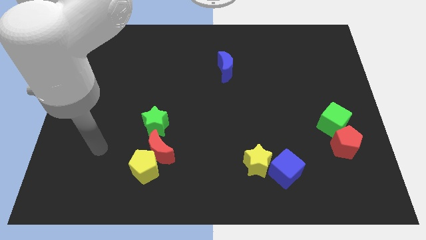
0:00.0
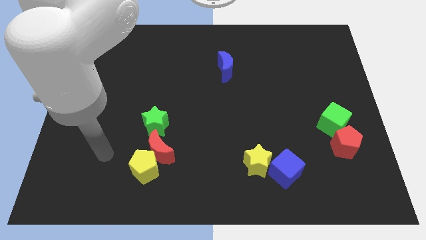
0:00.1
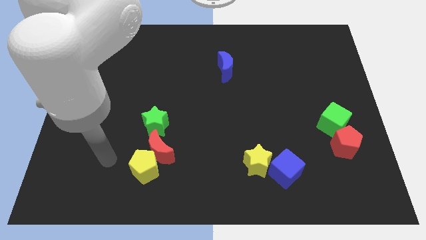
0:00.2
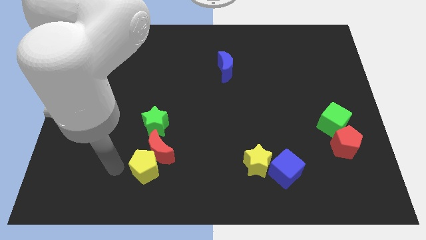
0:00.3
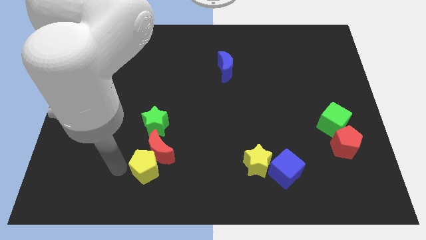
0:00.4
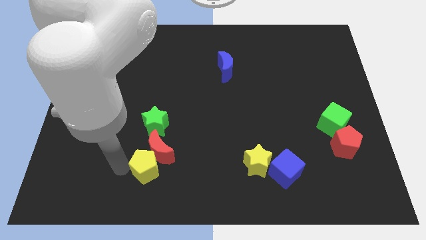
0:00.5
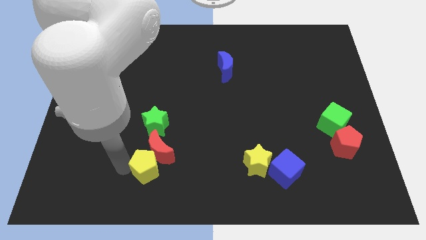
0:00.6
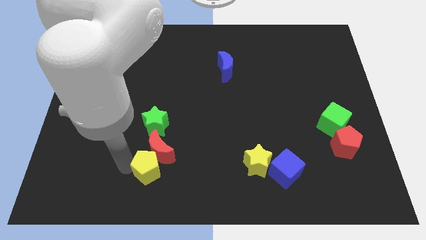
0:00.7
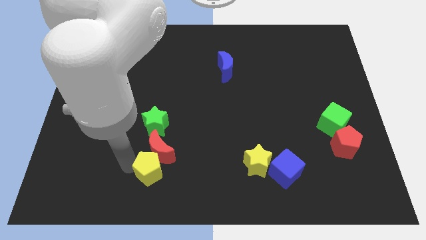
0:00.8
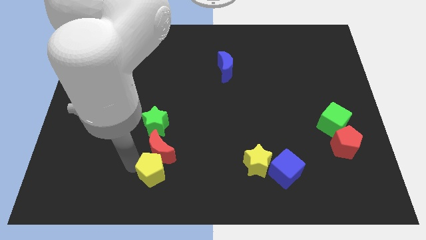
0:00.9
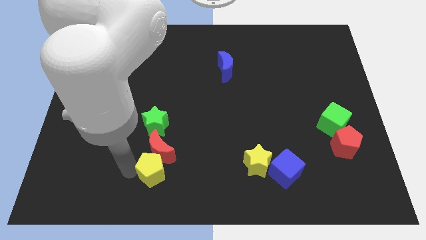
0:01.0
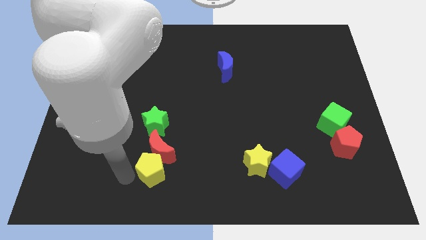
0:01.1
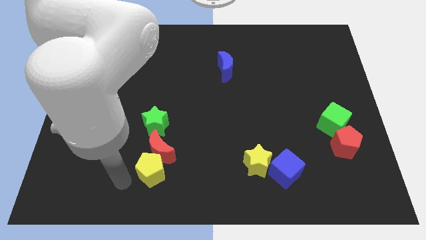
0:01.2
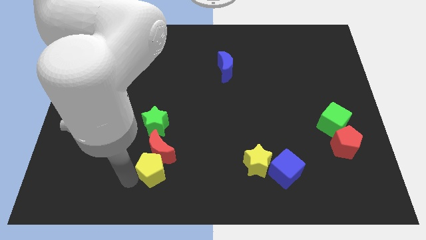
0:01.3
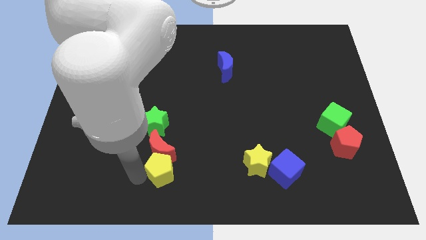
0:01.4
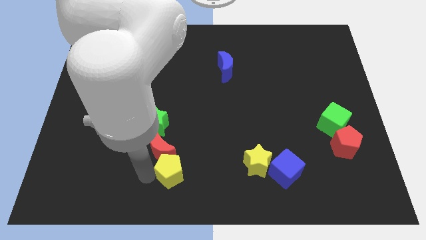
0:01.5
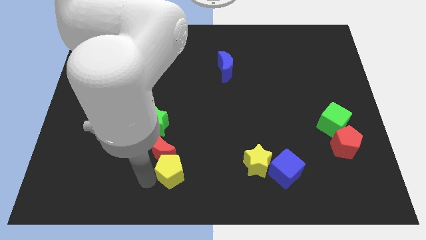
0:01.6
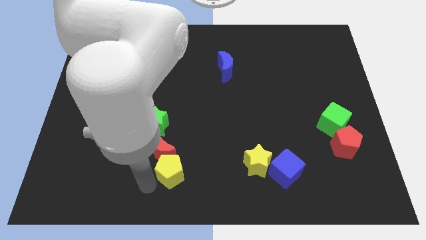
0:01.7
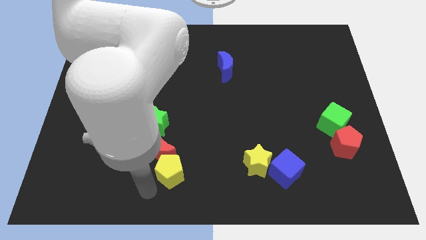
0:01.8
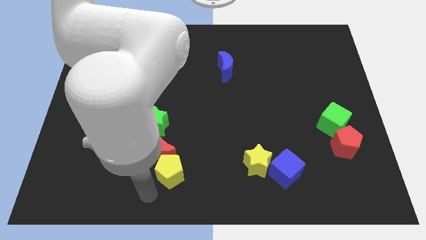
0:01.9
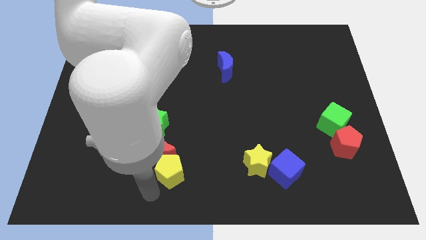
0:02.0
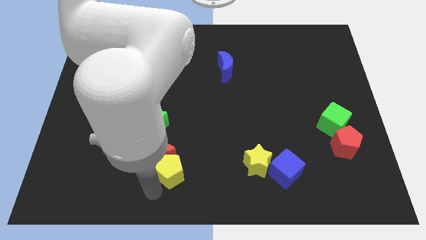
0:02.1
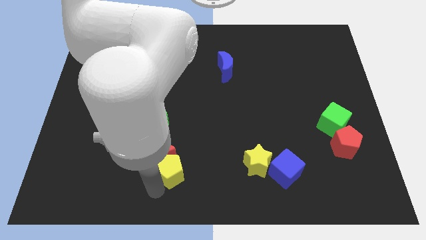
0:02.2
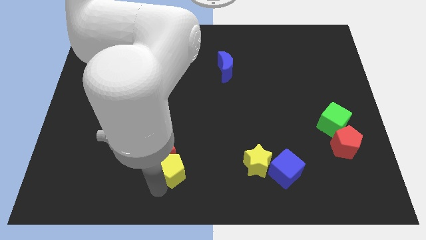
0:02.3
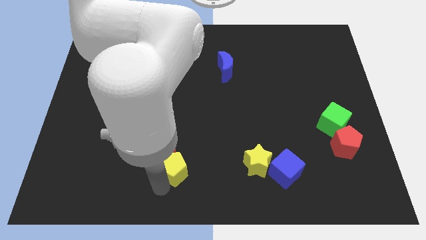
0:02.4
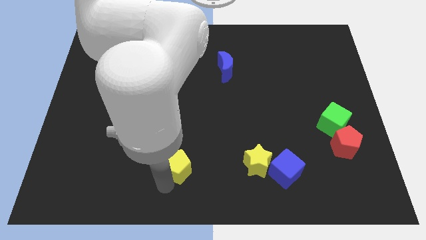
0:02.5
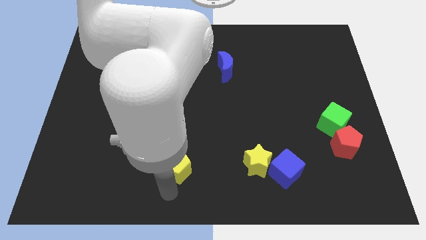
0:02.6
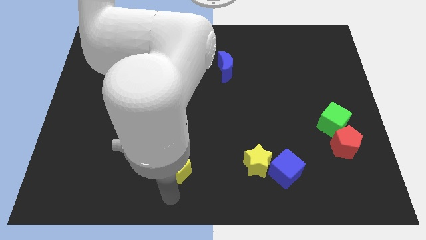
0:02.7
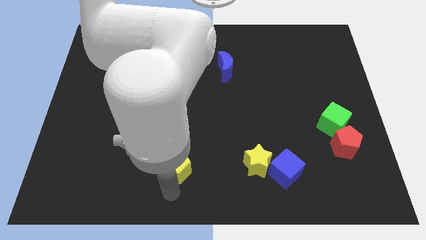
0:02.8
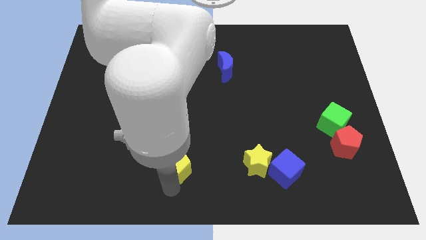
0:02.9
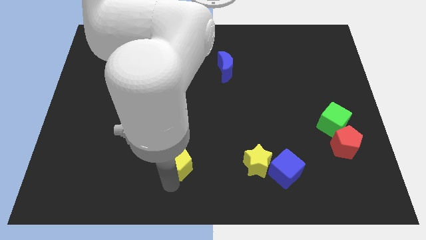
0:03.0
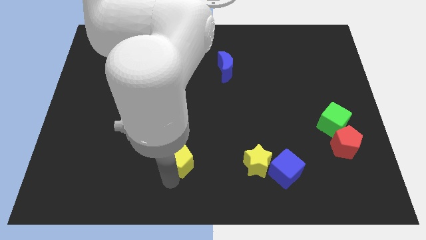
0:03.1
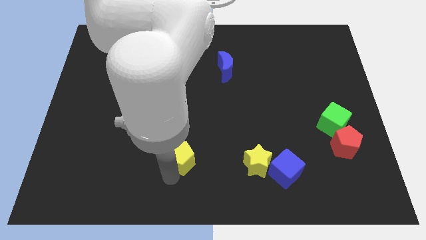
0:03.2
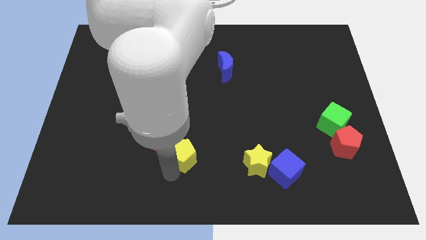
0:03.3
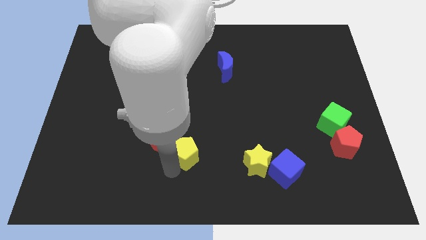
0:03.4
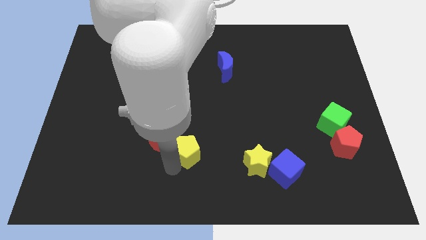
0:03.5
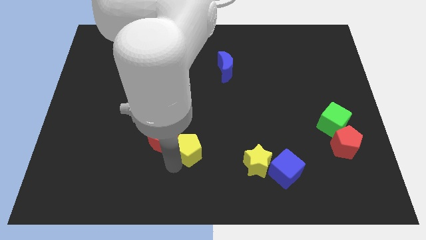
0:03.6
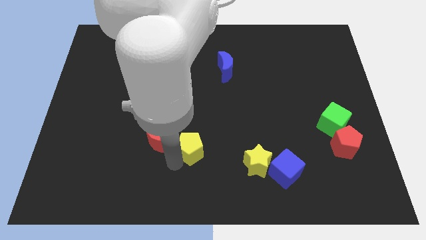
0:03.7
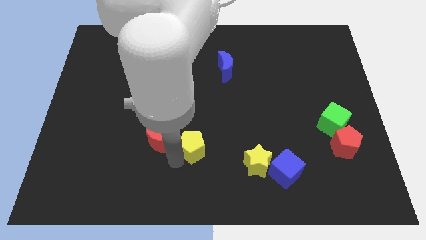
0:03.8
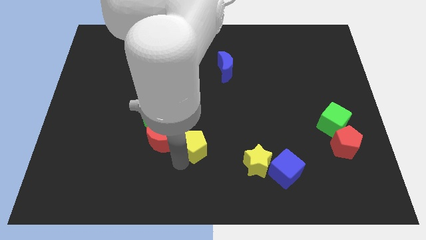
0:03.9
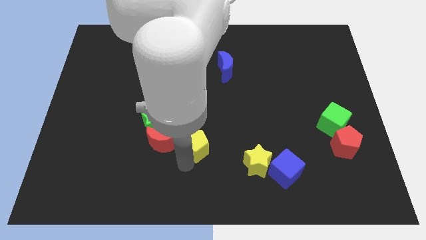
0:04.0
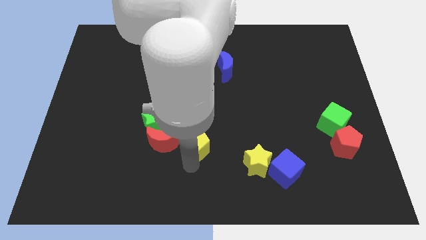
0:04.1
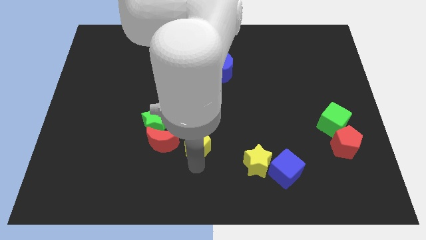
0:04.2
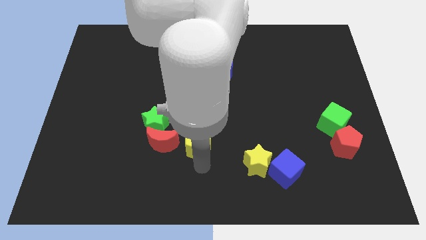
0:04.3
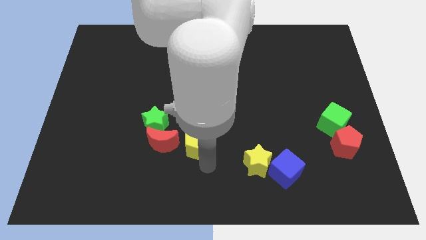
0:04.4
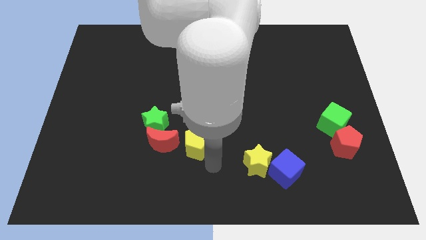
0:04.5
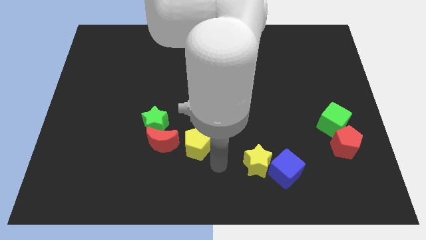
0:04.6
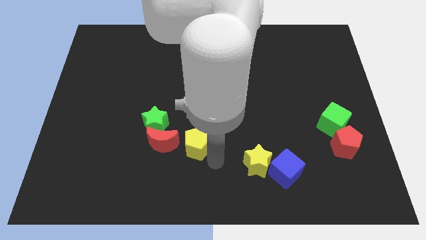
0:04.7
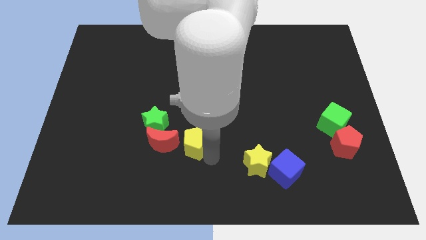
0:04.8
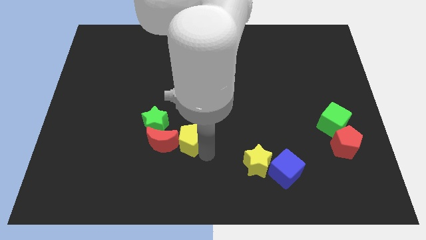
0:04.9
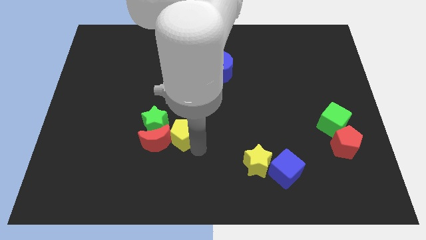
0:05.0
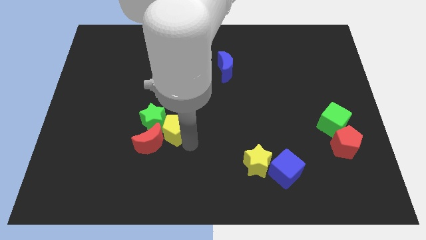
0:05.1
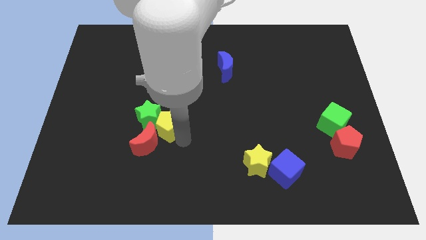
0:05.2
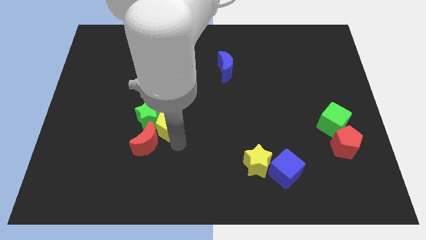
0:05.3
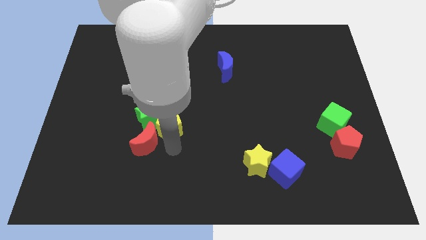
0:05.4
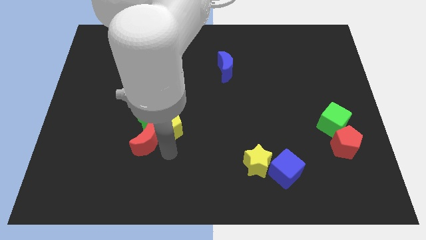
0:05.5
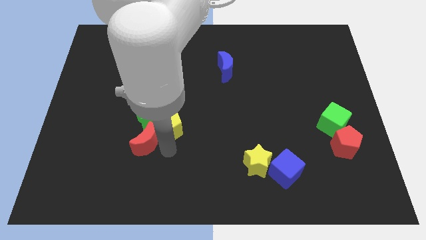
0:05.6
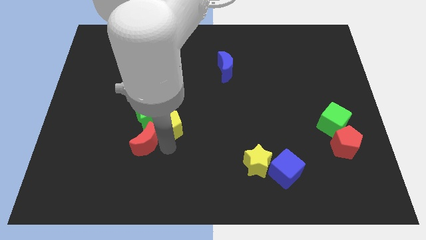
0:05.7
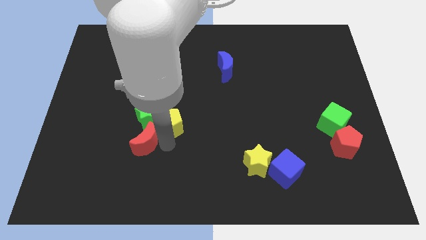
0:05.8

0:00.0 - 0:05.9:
push the yellow pentagon to the top right of the green star

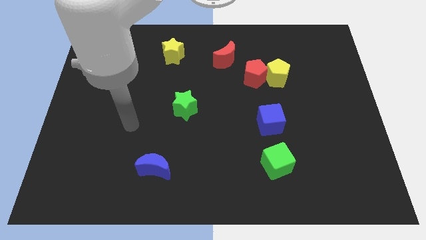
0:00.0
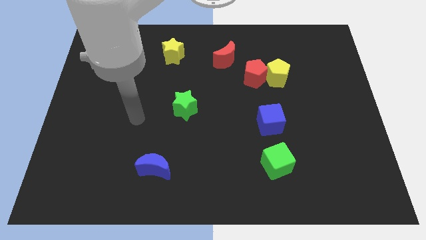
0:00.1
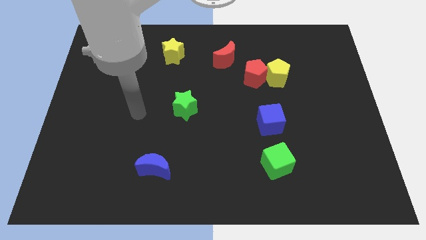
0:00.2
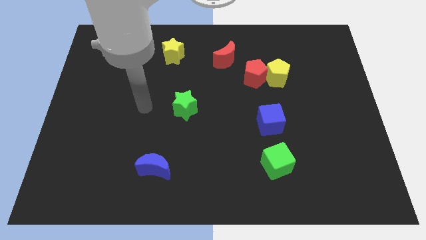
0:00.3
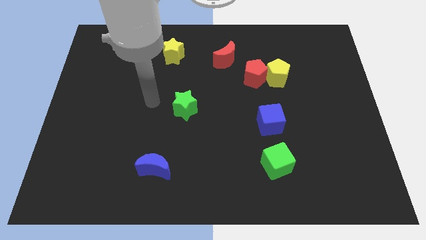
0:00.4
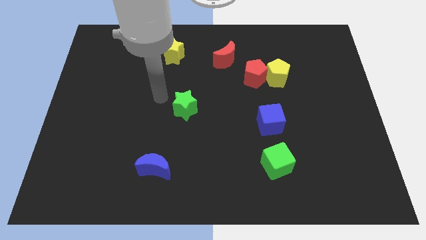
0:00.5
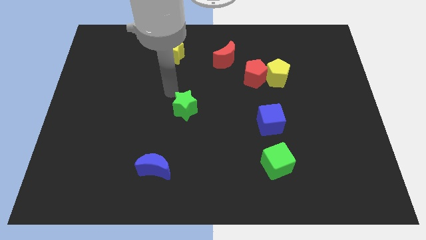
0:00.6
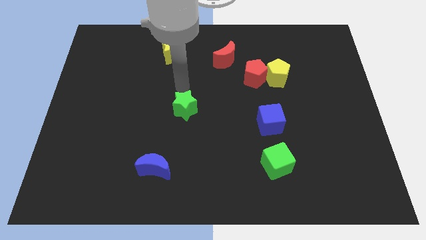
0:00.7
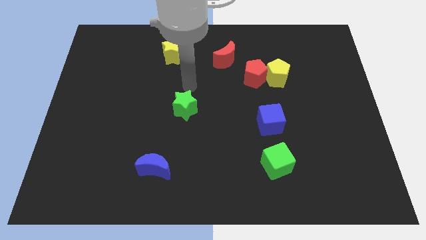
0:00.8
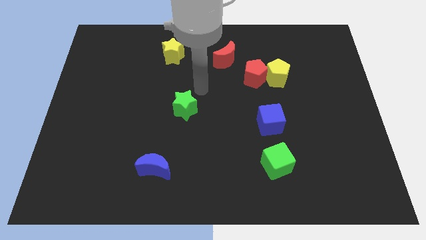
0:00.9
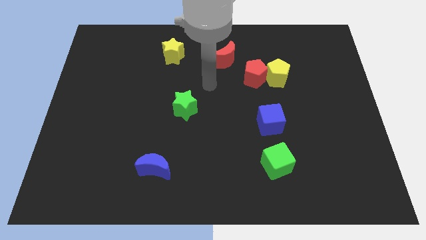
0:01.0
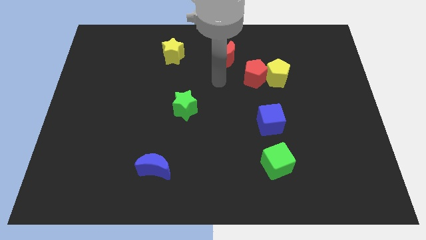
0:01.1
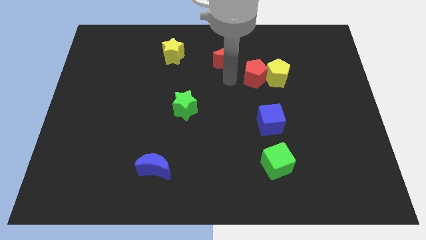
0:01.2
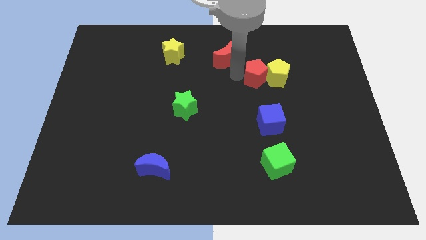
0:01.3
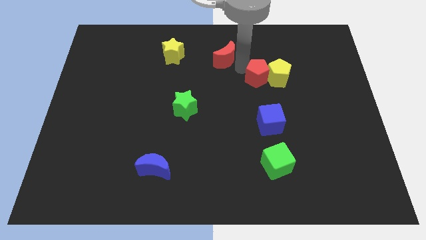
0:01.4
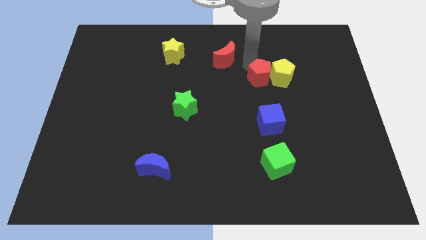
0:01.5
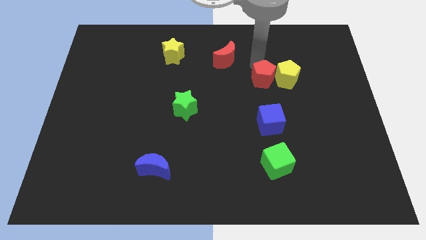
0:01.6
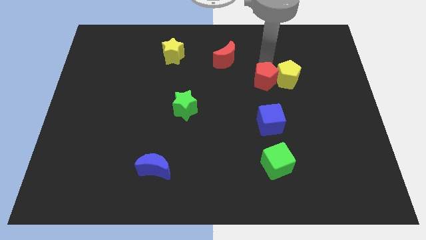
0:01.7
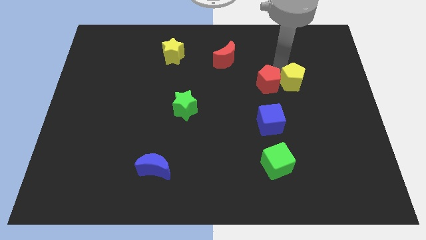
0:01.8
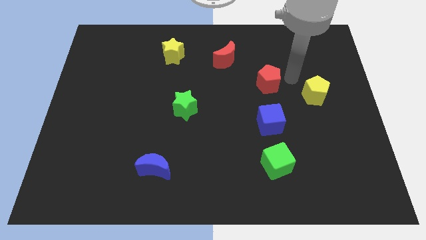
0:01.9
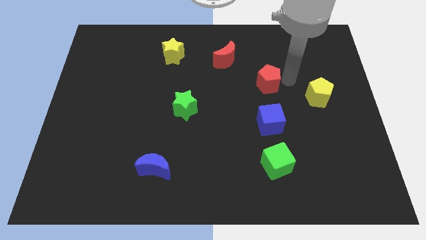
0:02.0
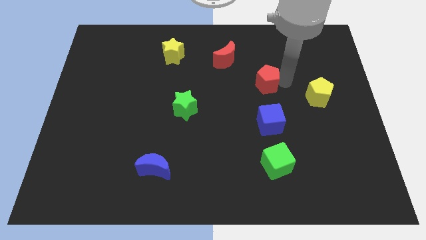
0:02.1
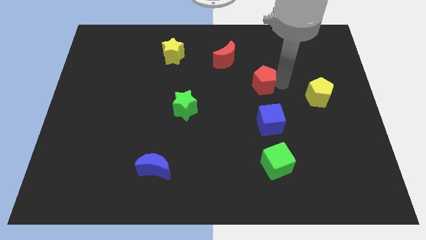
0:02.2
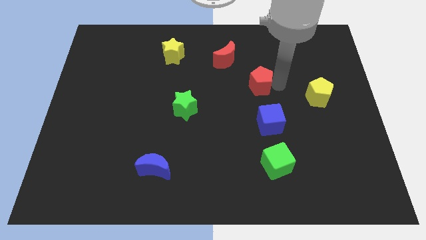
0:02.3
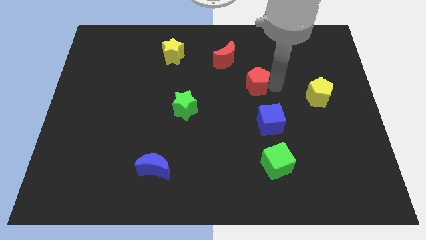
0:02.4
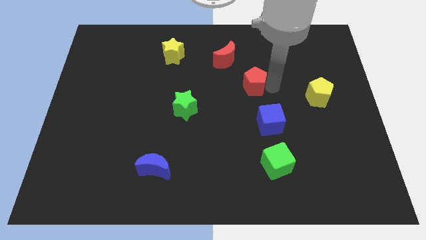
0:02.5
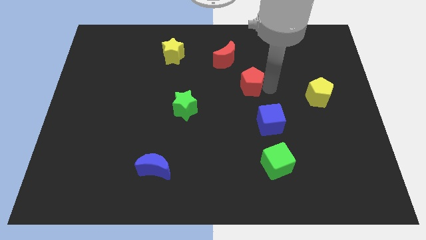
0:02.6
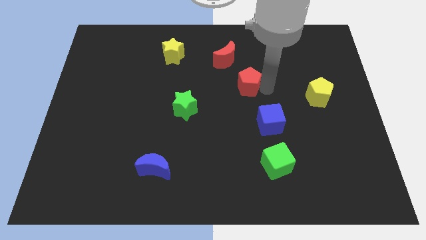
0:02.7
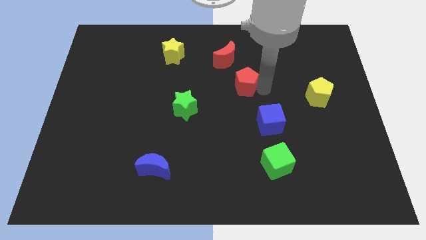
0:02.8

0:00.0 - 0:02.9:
put the red pentagon to the bottom of the red moon
